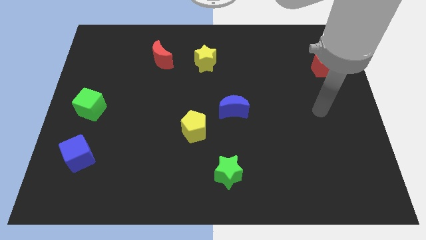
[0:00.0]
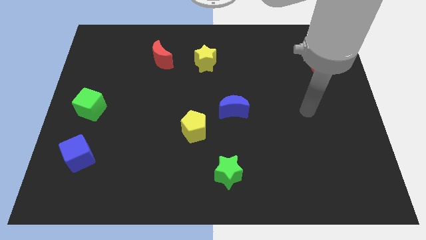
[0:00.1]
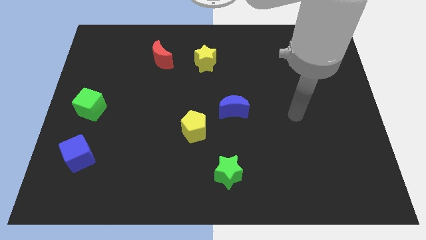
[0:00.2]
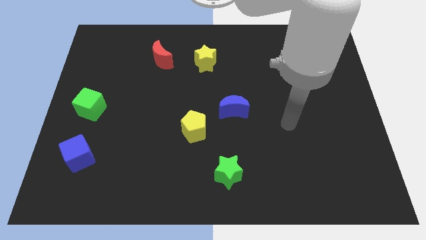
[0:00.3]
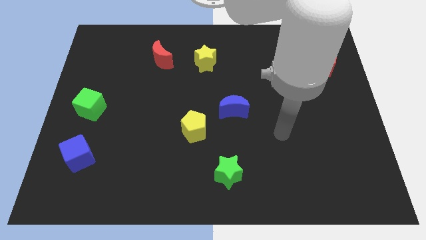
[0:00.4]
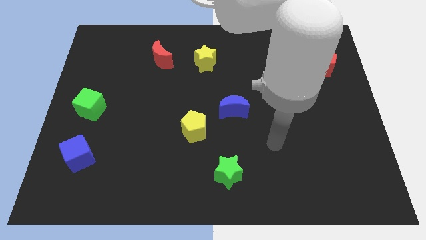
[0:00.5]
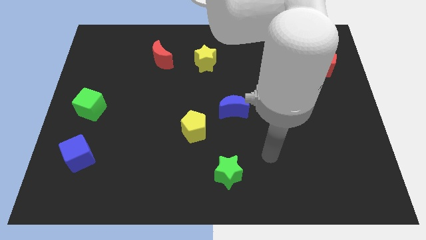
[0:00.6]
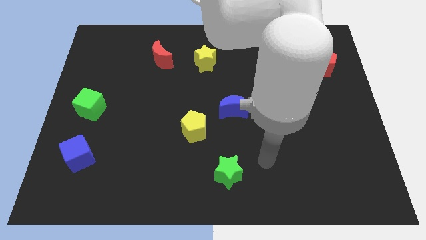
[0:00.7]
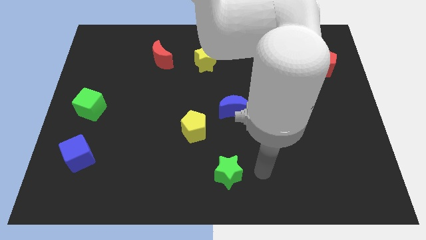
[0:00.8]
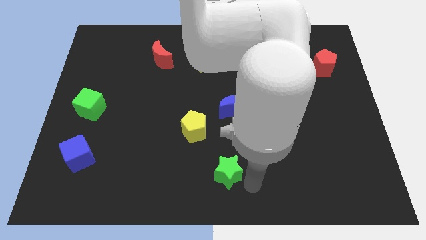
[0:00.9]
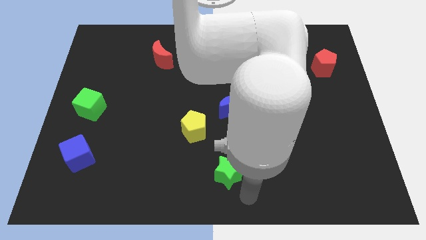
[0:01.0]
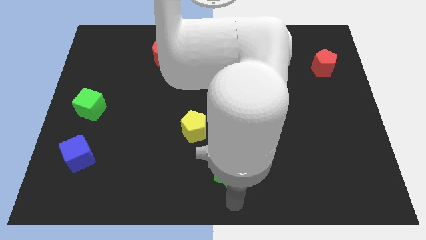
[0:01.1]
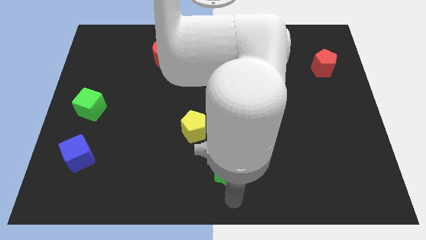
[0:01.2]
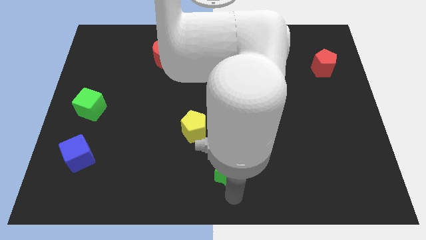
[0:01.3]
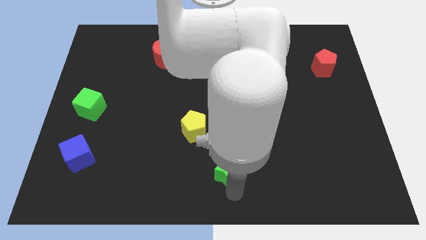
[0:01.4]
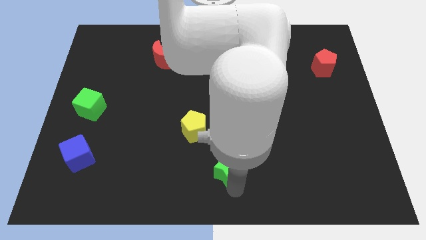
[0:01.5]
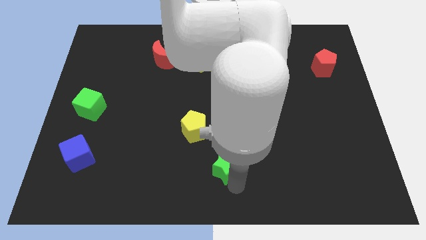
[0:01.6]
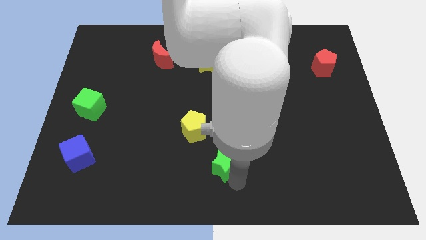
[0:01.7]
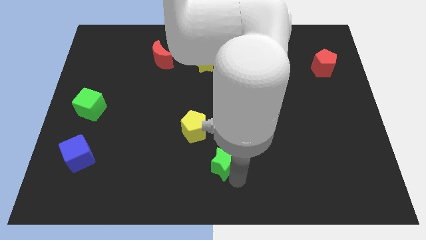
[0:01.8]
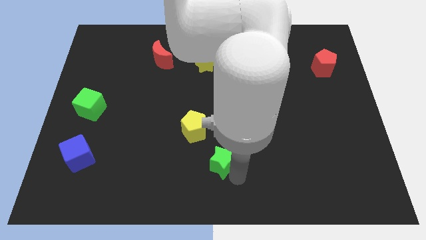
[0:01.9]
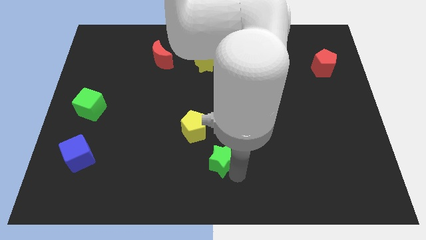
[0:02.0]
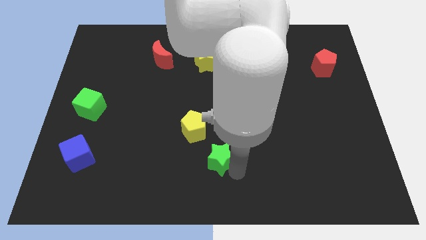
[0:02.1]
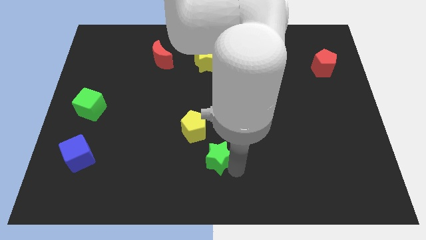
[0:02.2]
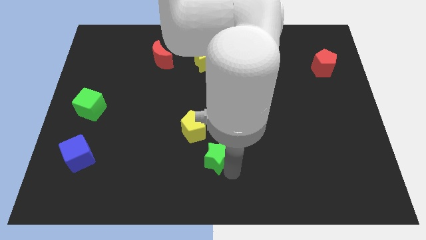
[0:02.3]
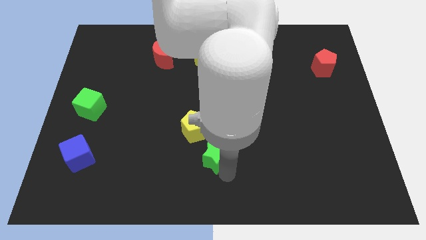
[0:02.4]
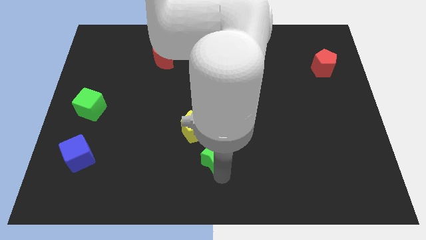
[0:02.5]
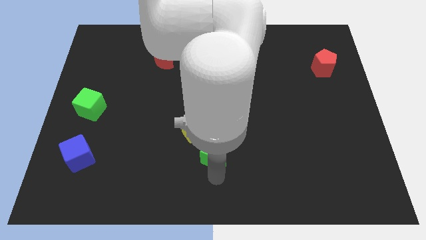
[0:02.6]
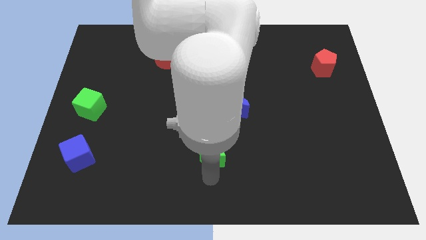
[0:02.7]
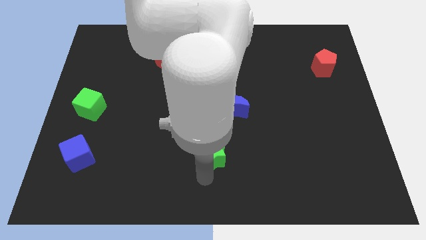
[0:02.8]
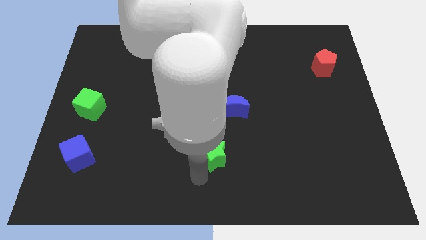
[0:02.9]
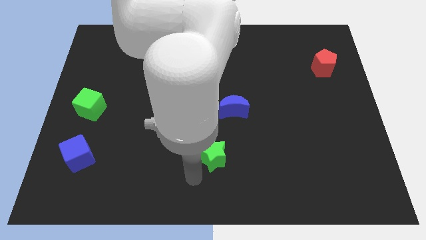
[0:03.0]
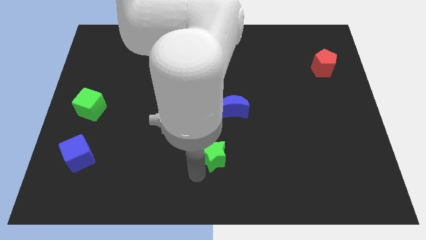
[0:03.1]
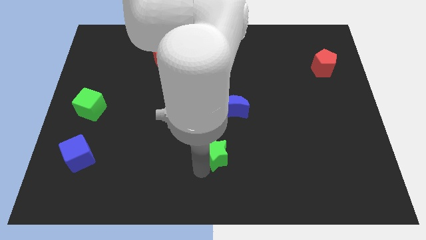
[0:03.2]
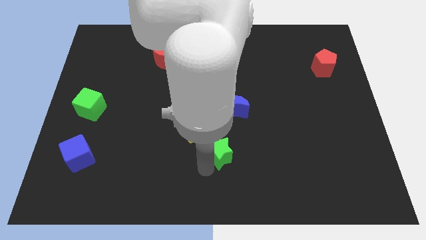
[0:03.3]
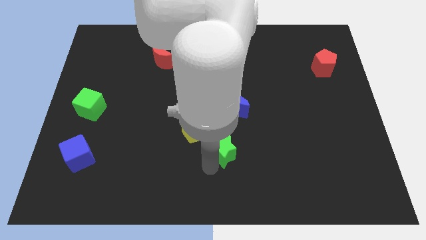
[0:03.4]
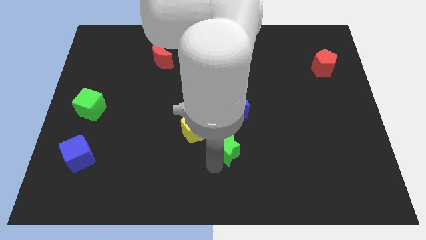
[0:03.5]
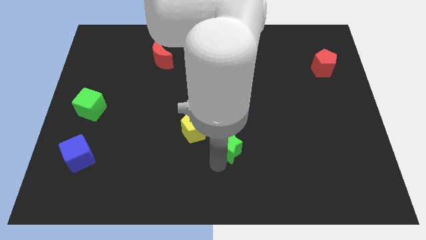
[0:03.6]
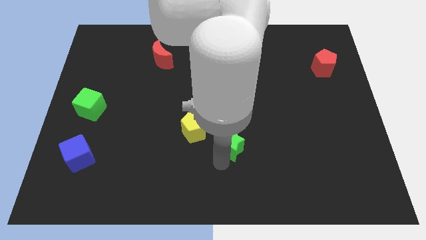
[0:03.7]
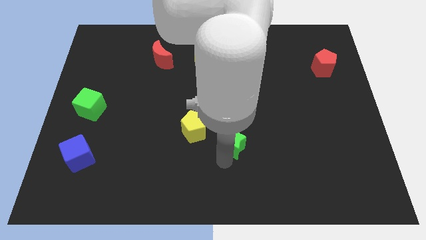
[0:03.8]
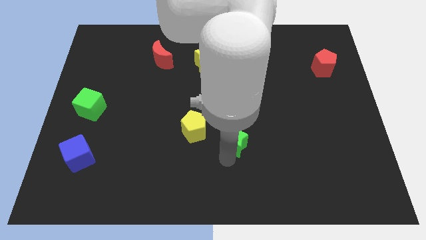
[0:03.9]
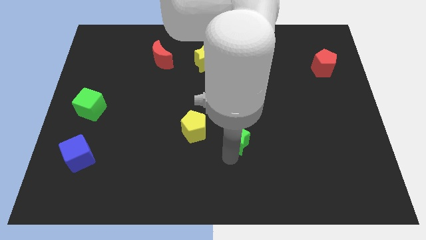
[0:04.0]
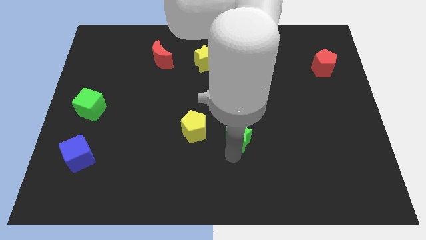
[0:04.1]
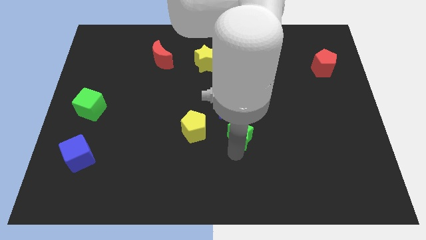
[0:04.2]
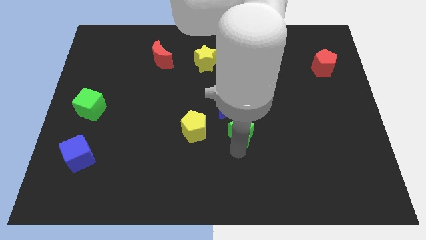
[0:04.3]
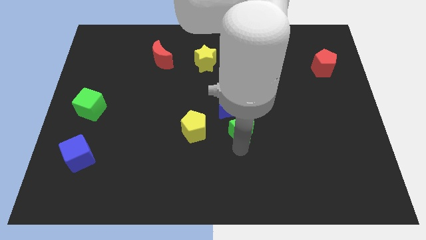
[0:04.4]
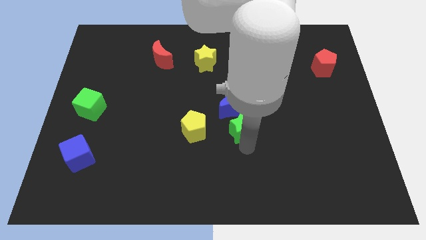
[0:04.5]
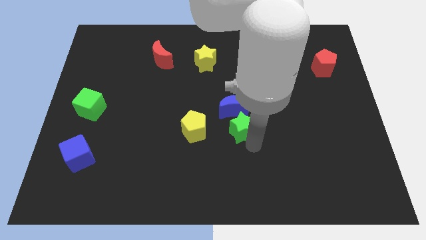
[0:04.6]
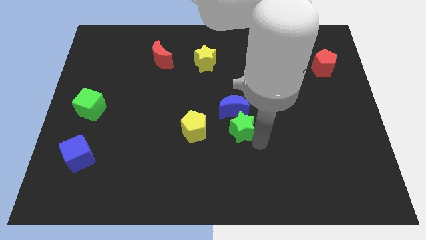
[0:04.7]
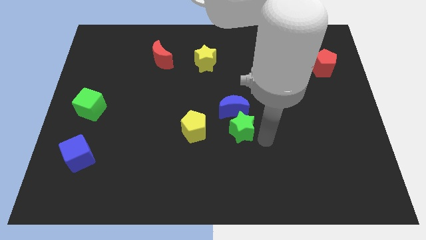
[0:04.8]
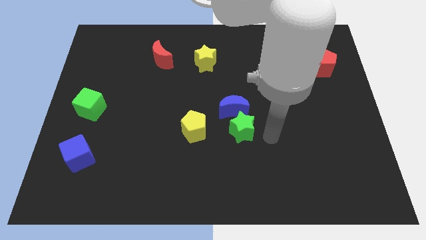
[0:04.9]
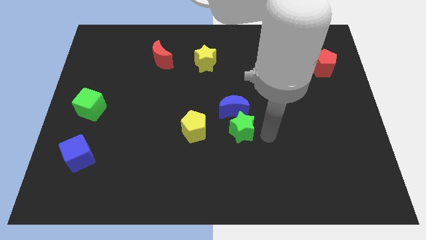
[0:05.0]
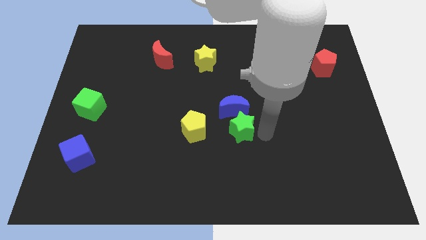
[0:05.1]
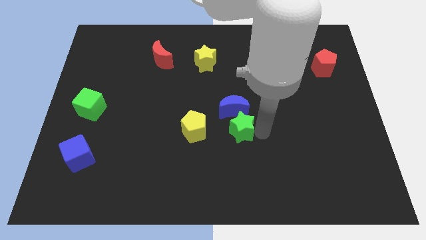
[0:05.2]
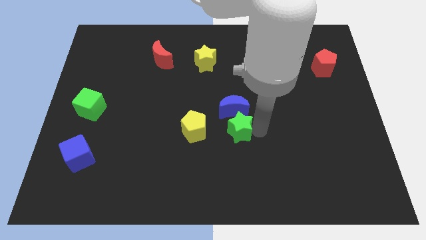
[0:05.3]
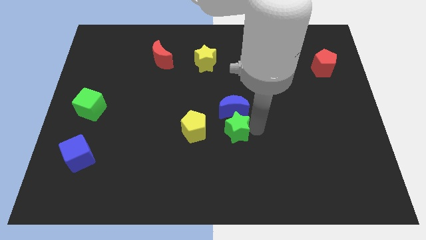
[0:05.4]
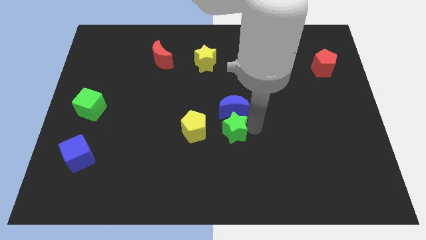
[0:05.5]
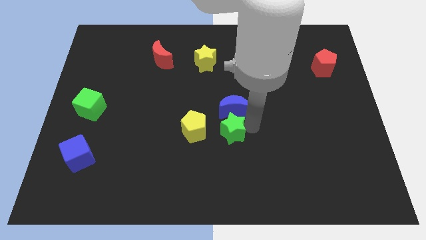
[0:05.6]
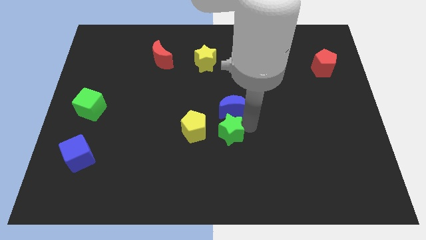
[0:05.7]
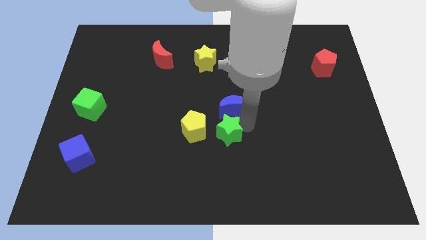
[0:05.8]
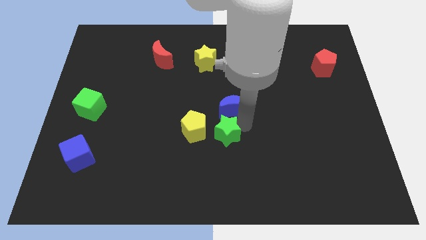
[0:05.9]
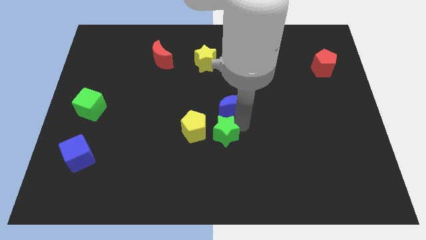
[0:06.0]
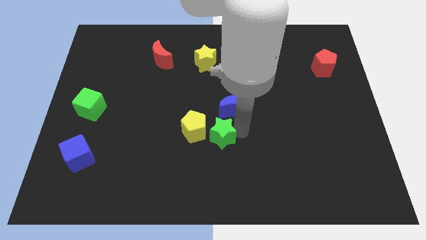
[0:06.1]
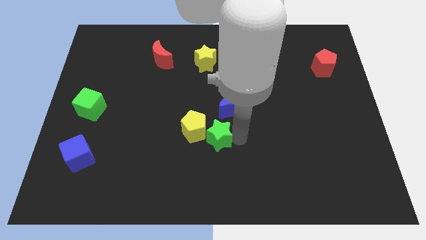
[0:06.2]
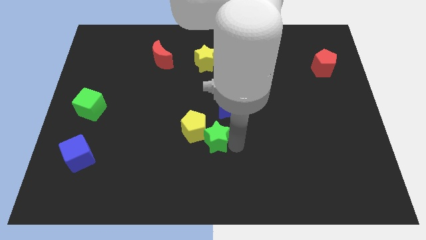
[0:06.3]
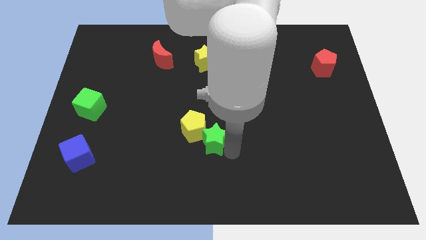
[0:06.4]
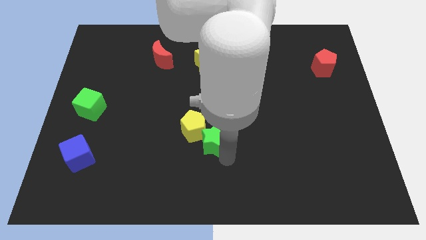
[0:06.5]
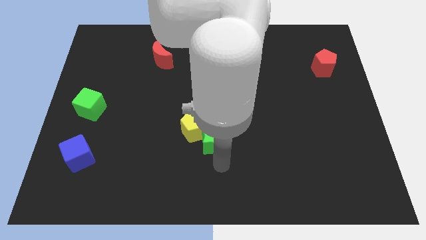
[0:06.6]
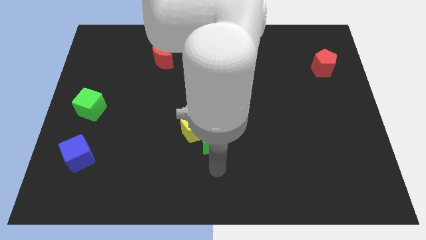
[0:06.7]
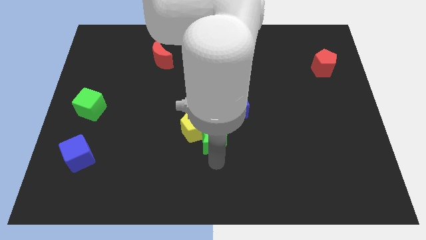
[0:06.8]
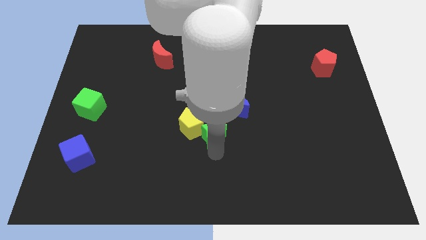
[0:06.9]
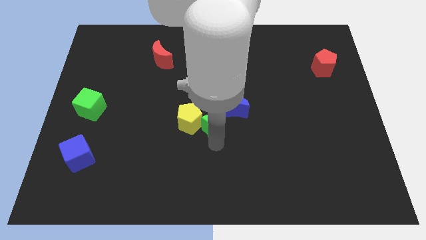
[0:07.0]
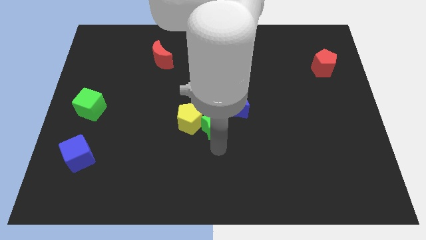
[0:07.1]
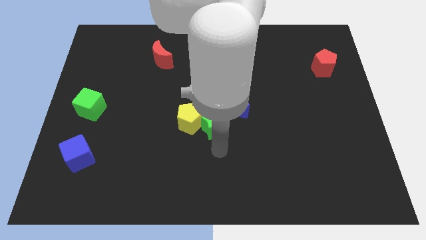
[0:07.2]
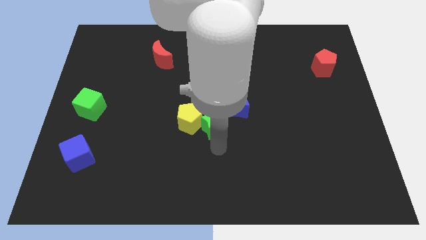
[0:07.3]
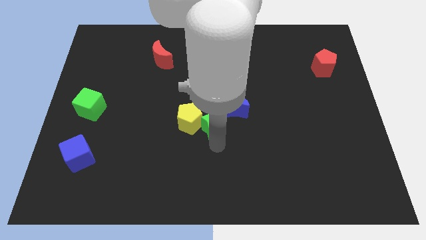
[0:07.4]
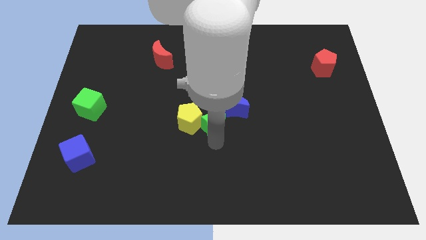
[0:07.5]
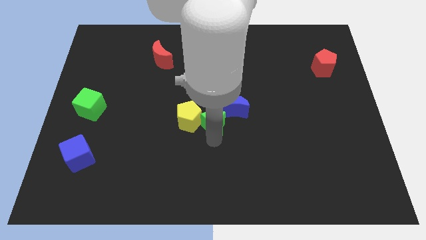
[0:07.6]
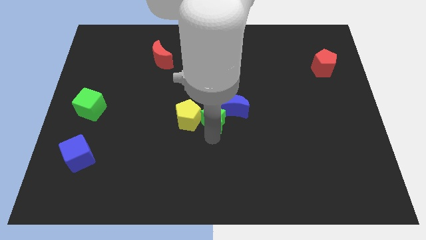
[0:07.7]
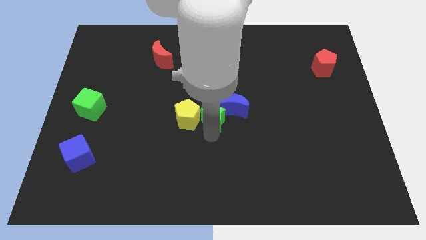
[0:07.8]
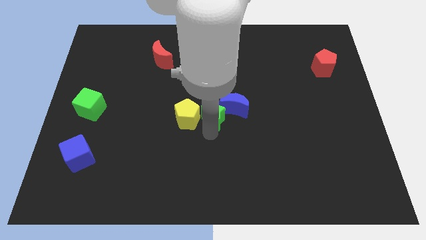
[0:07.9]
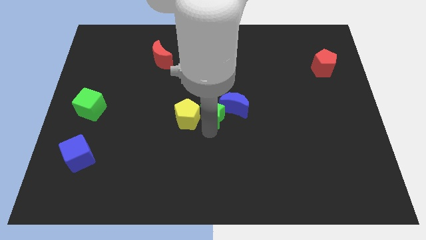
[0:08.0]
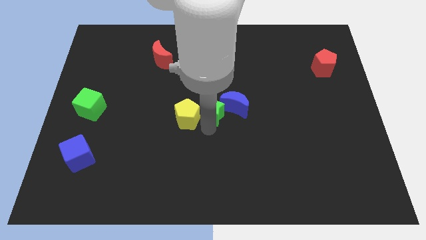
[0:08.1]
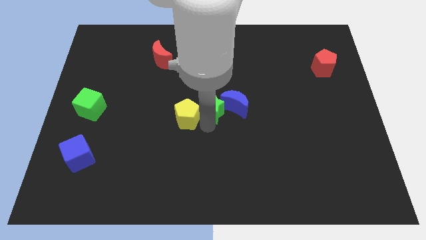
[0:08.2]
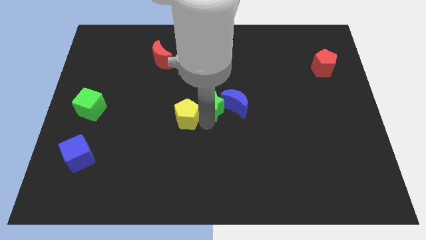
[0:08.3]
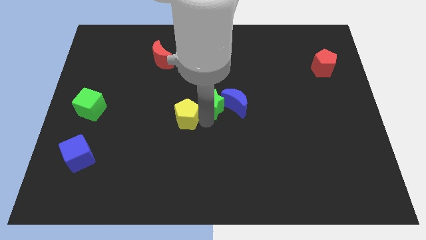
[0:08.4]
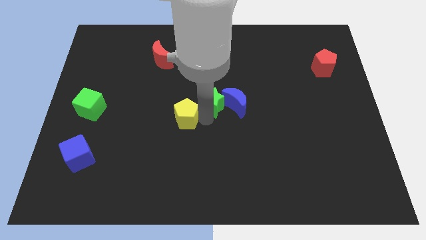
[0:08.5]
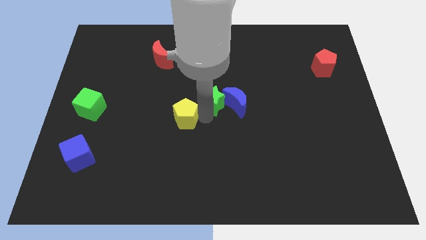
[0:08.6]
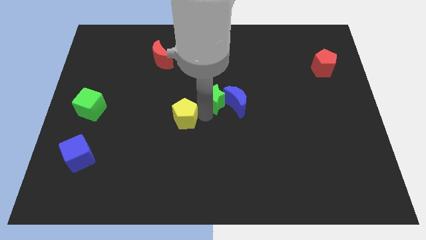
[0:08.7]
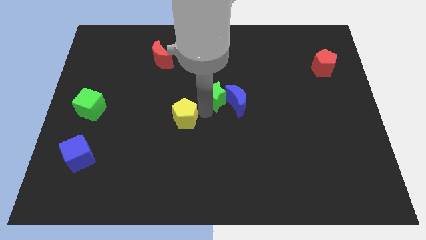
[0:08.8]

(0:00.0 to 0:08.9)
push the green star upwards
